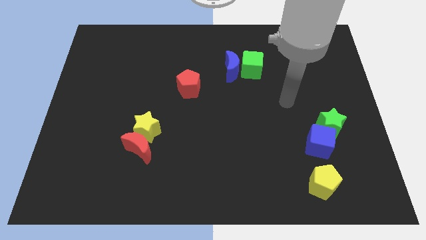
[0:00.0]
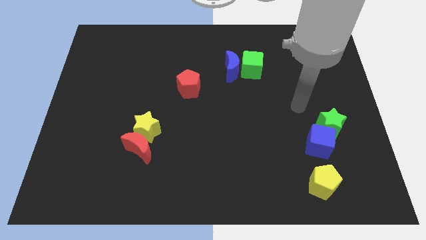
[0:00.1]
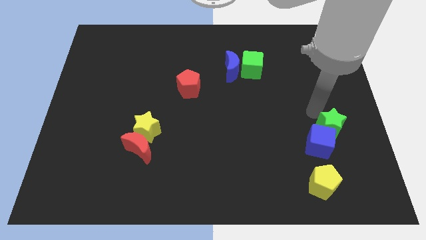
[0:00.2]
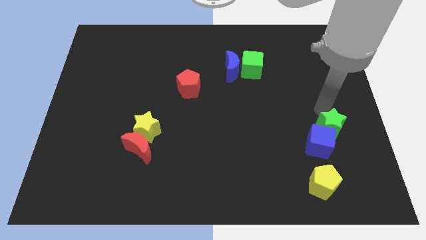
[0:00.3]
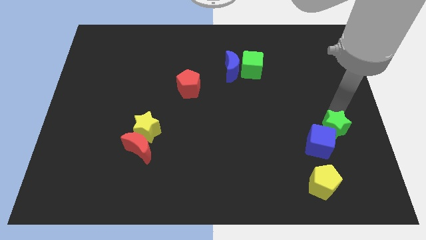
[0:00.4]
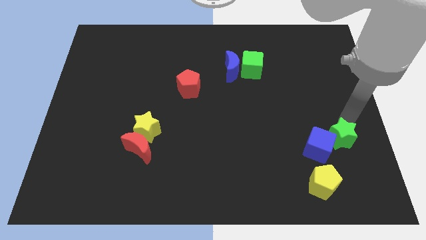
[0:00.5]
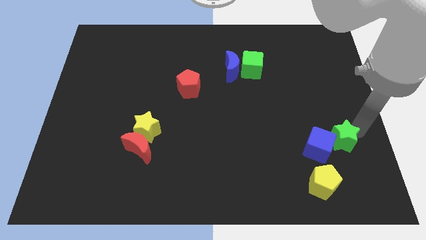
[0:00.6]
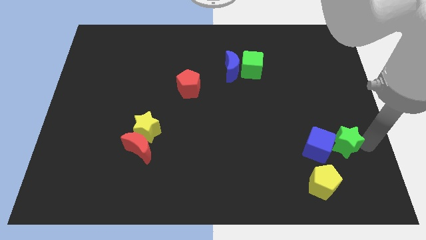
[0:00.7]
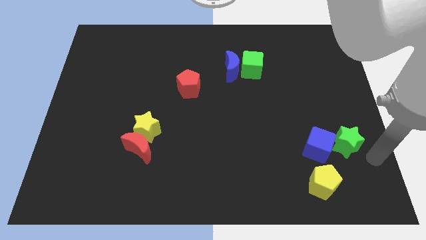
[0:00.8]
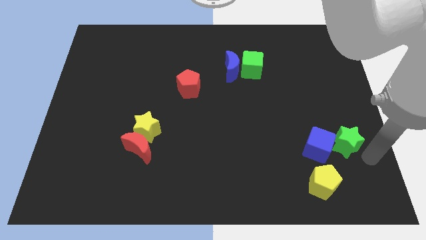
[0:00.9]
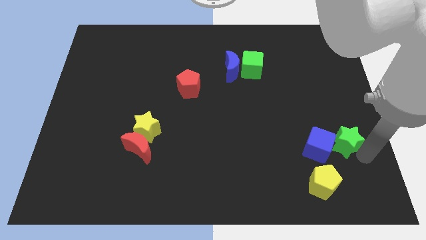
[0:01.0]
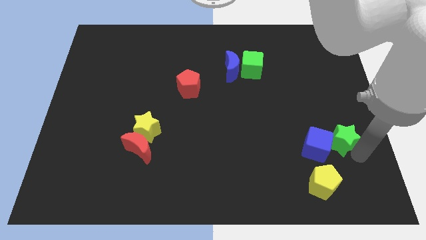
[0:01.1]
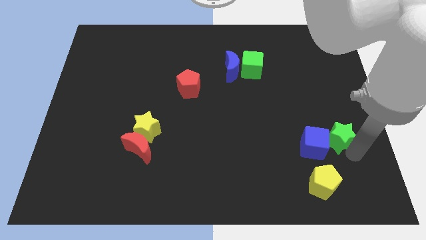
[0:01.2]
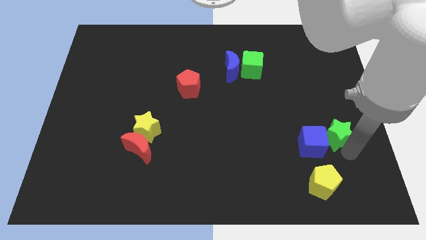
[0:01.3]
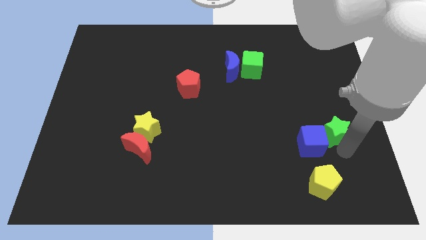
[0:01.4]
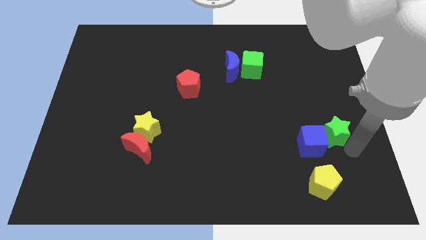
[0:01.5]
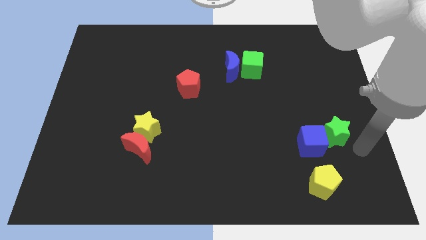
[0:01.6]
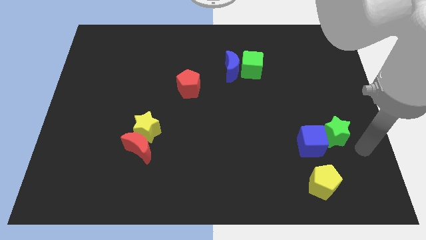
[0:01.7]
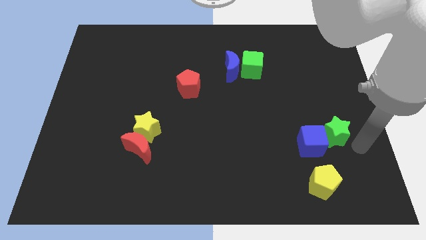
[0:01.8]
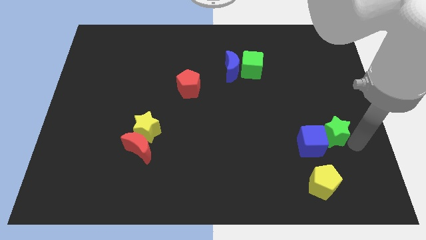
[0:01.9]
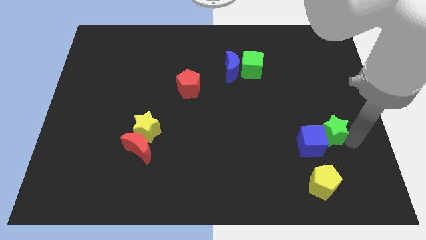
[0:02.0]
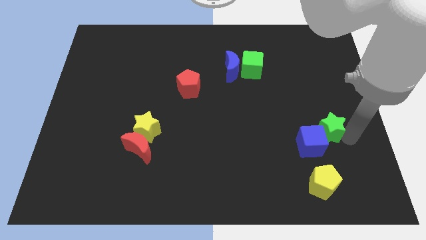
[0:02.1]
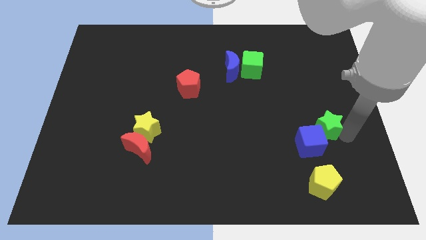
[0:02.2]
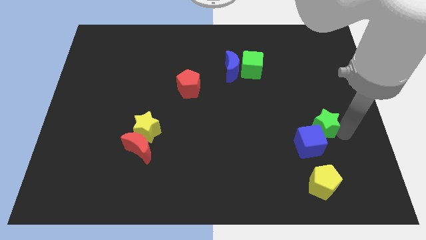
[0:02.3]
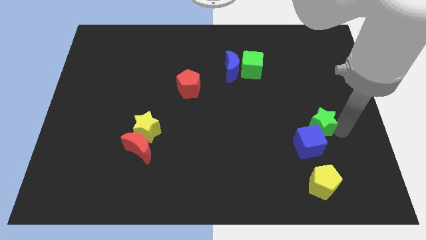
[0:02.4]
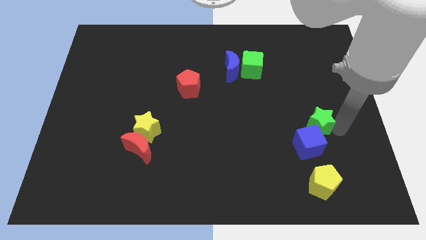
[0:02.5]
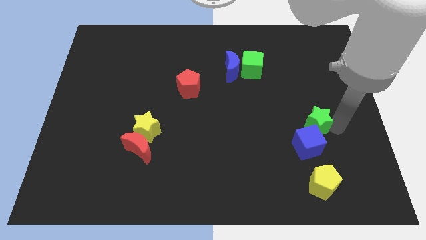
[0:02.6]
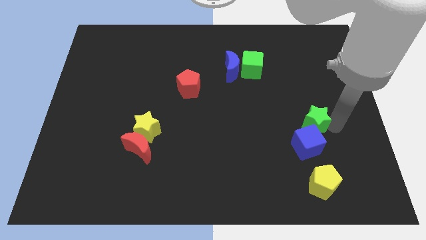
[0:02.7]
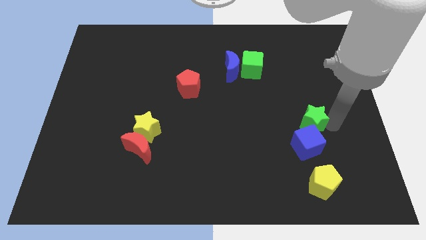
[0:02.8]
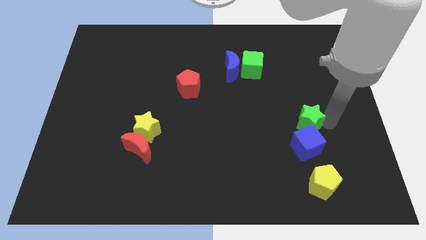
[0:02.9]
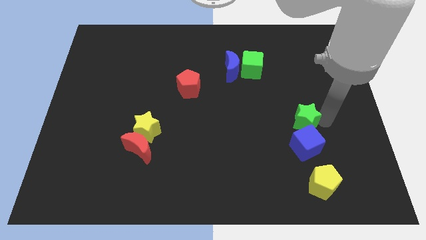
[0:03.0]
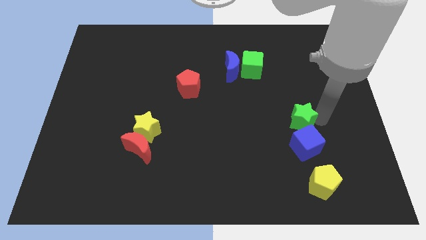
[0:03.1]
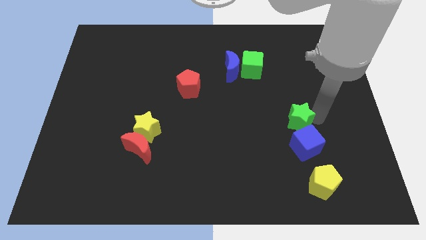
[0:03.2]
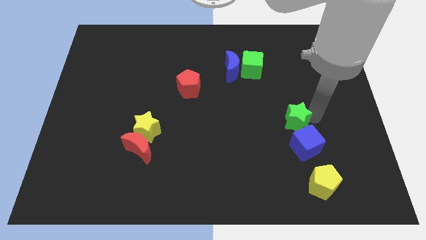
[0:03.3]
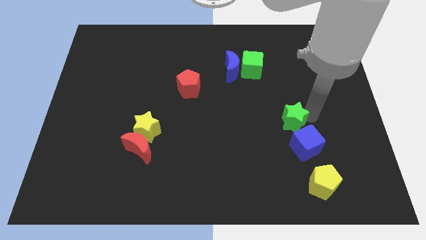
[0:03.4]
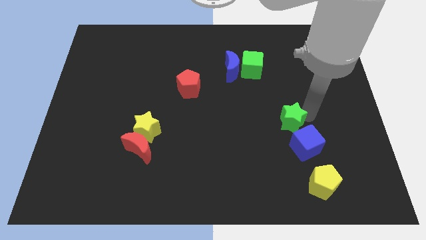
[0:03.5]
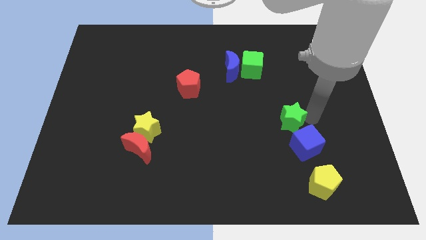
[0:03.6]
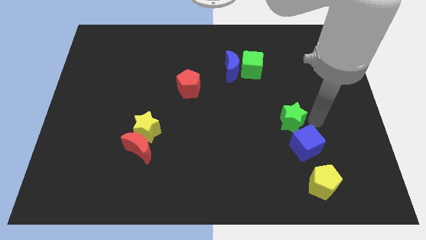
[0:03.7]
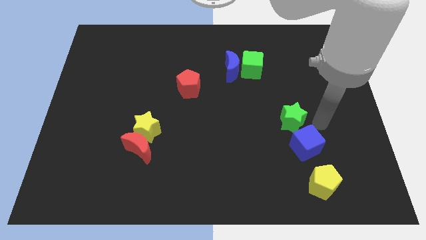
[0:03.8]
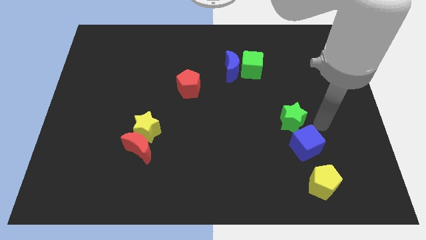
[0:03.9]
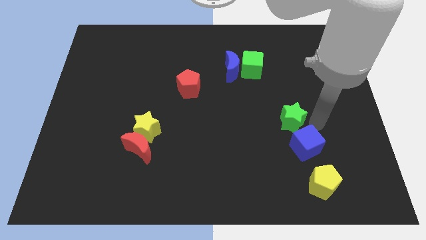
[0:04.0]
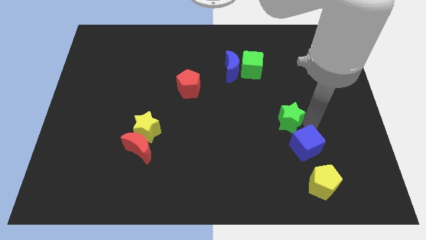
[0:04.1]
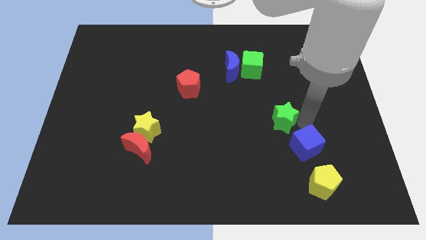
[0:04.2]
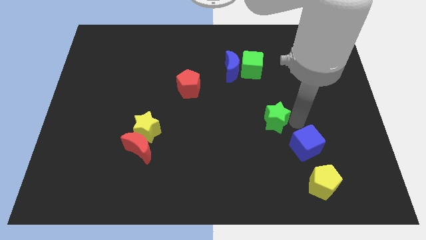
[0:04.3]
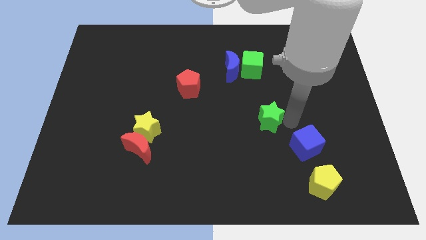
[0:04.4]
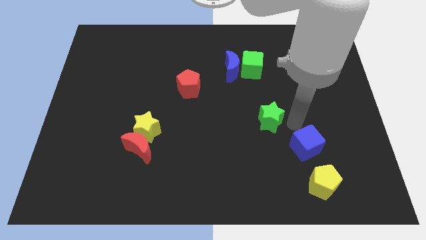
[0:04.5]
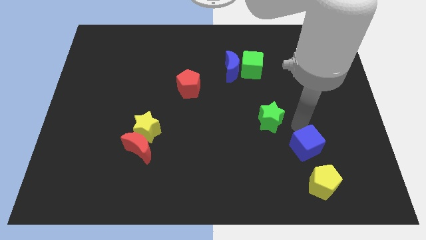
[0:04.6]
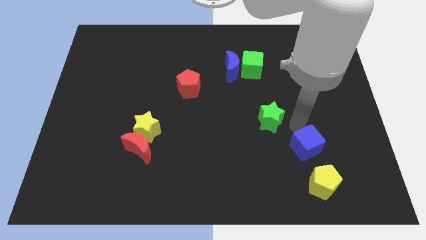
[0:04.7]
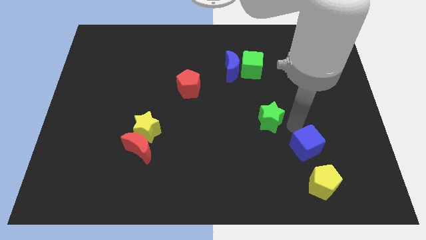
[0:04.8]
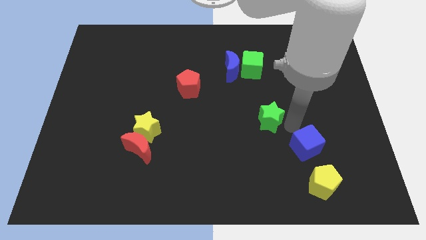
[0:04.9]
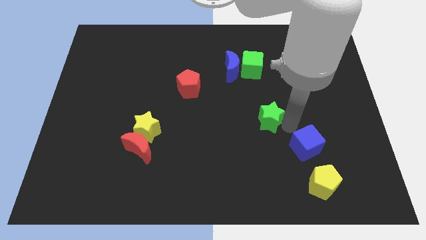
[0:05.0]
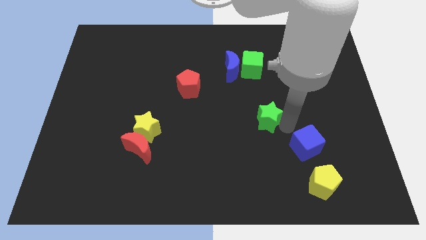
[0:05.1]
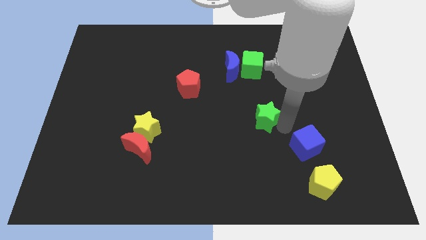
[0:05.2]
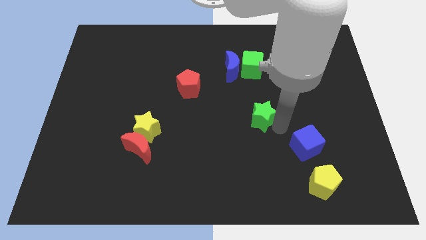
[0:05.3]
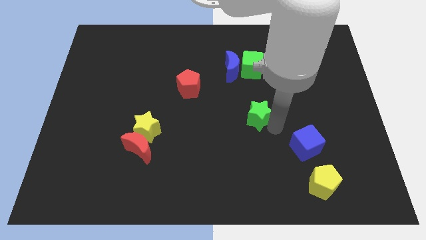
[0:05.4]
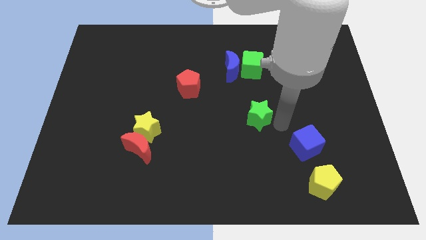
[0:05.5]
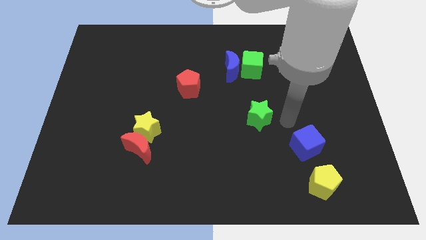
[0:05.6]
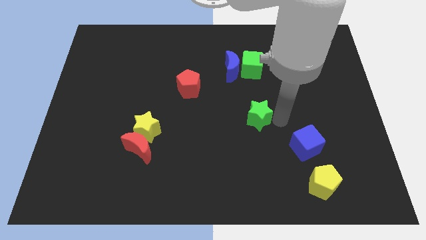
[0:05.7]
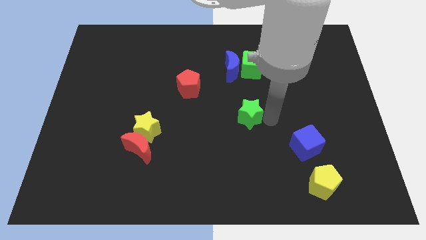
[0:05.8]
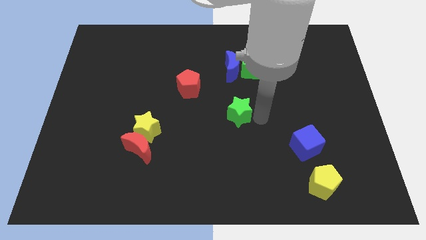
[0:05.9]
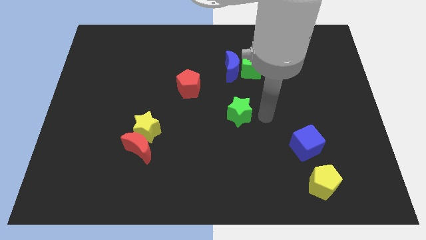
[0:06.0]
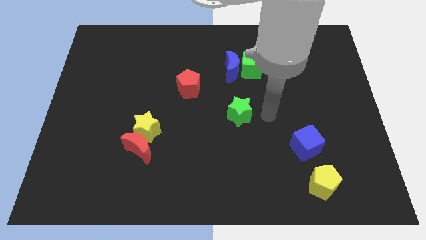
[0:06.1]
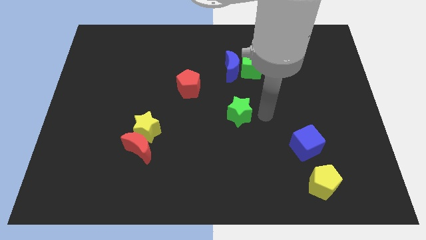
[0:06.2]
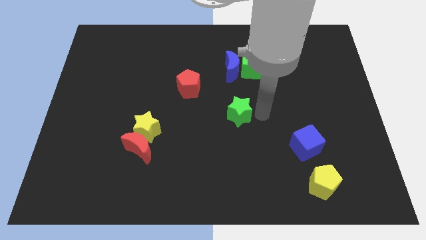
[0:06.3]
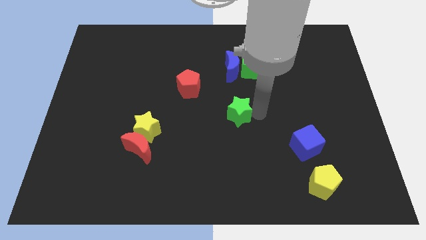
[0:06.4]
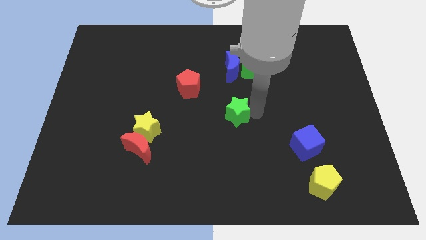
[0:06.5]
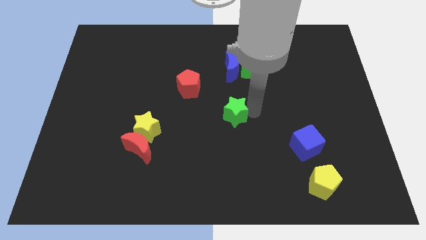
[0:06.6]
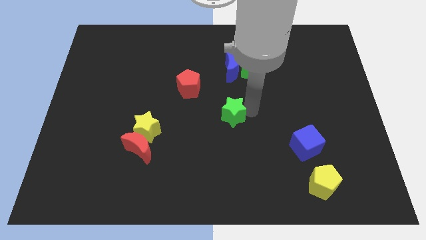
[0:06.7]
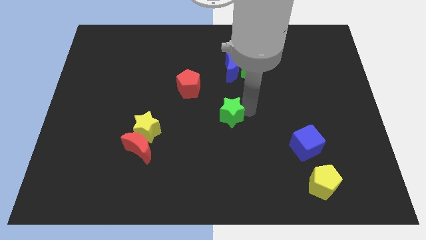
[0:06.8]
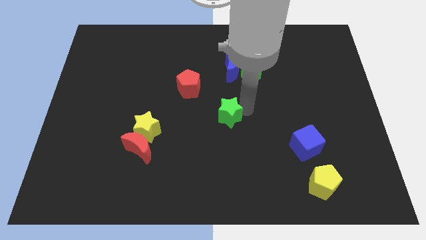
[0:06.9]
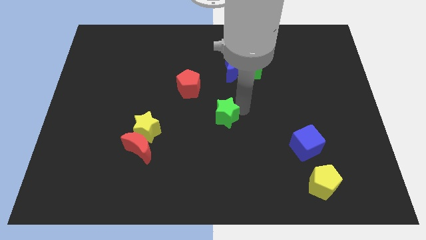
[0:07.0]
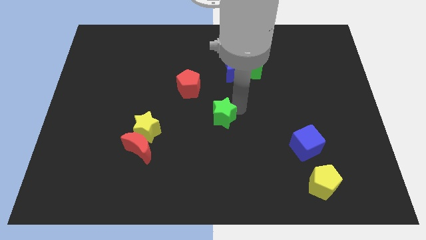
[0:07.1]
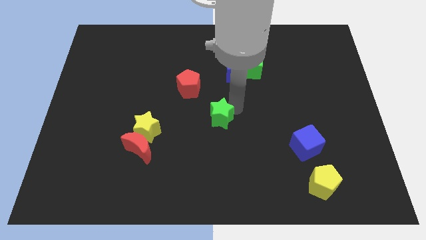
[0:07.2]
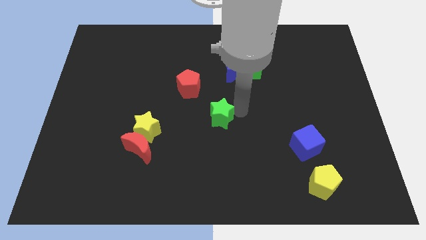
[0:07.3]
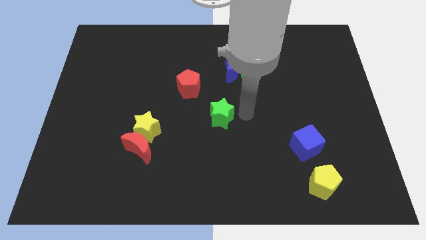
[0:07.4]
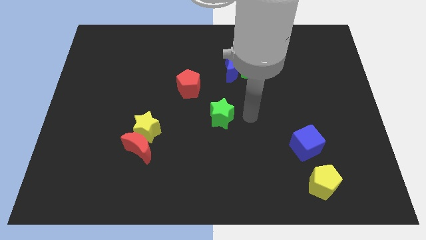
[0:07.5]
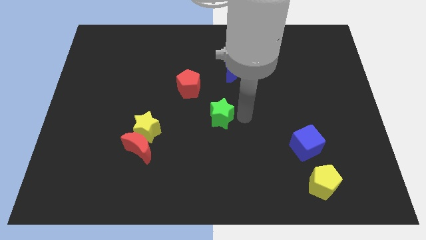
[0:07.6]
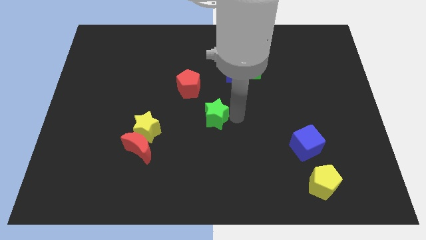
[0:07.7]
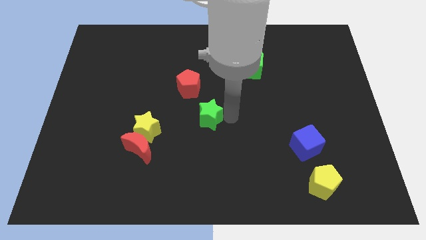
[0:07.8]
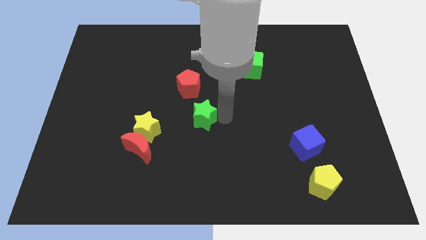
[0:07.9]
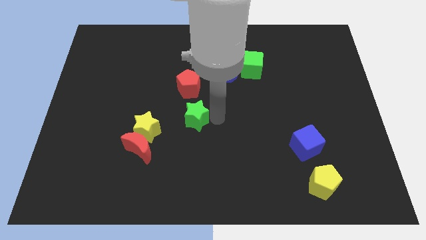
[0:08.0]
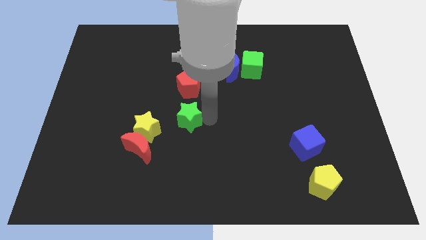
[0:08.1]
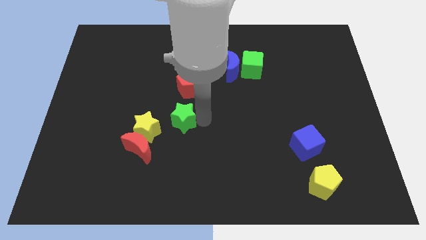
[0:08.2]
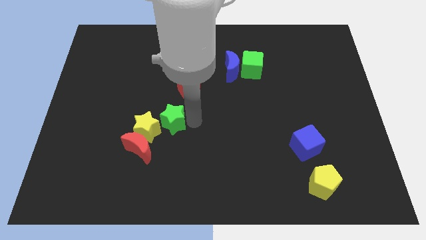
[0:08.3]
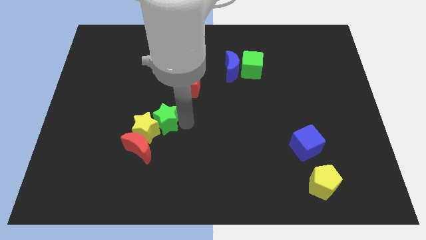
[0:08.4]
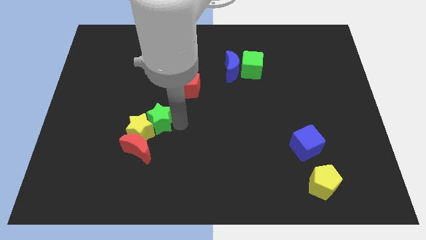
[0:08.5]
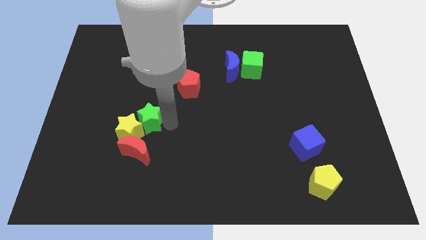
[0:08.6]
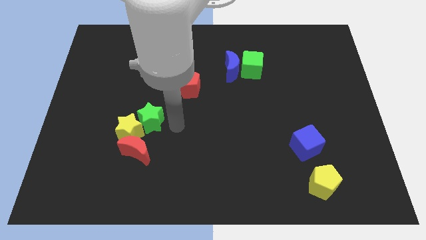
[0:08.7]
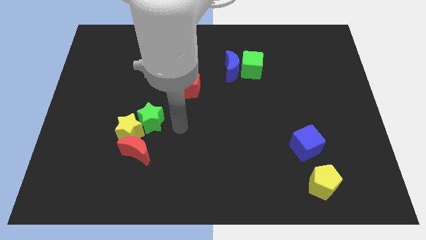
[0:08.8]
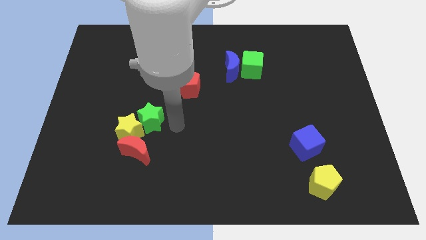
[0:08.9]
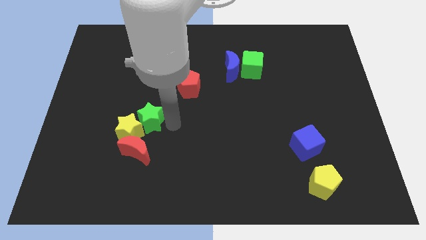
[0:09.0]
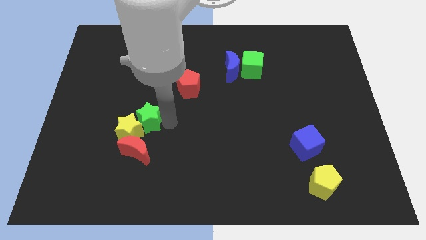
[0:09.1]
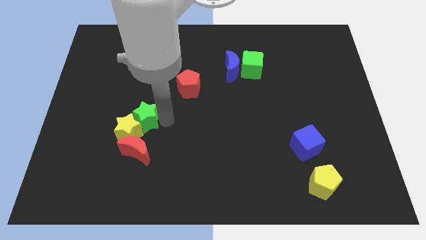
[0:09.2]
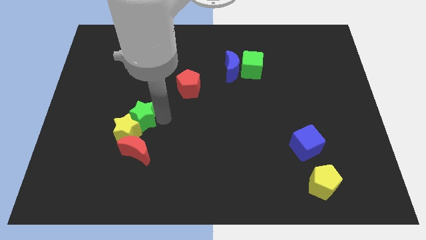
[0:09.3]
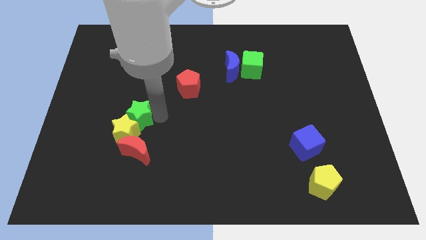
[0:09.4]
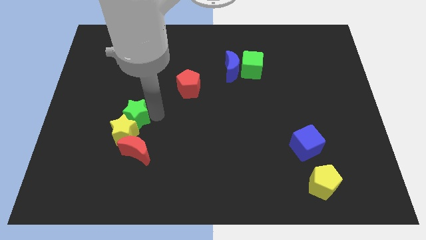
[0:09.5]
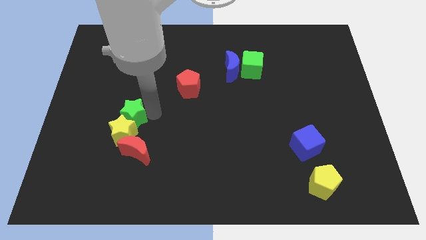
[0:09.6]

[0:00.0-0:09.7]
push the green star diagonally up and to the left of the yellow star
